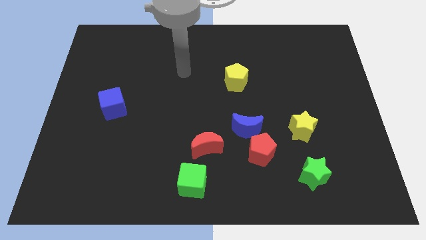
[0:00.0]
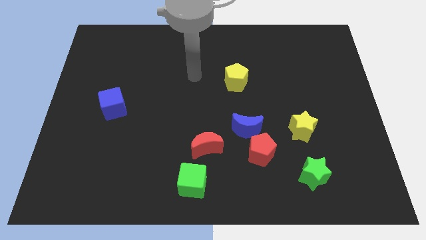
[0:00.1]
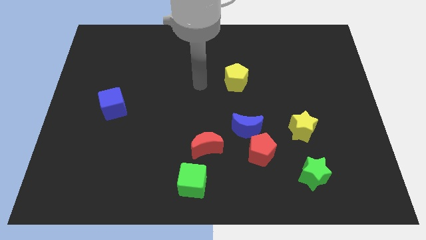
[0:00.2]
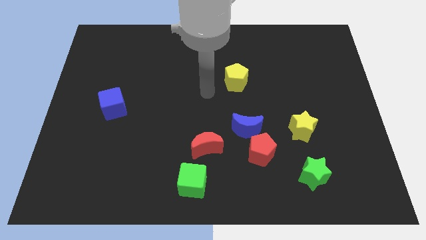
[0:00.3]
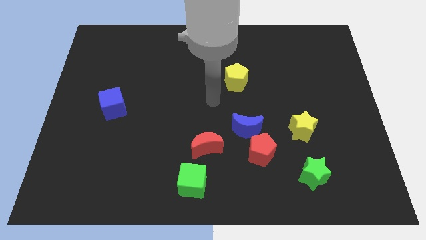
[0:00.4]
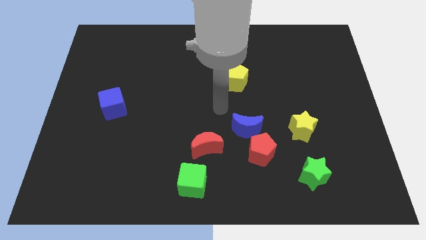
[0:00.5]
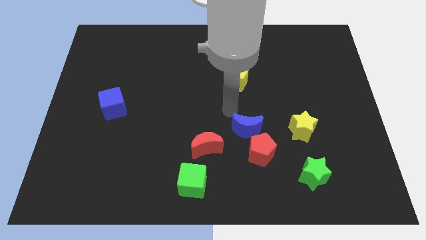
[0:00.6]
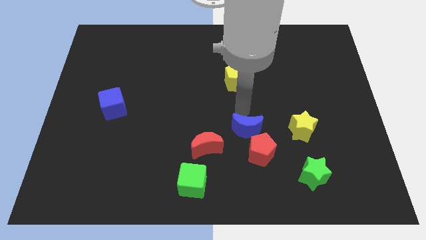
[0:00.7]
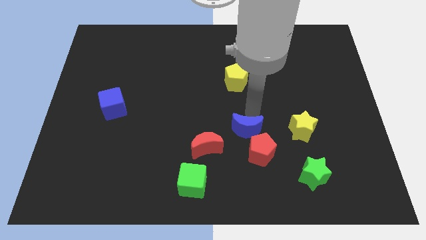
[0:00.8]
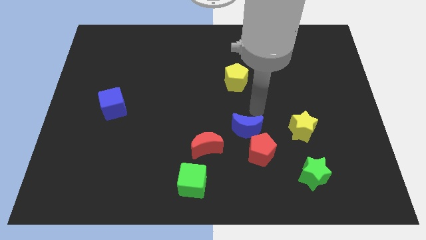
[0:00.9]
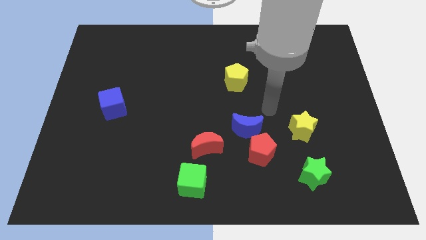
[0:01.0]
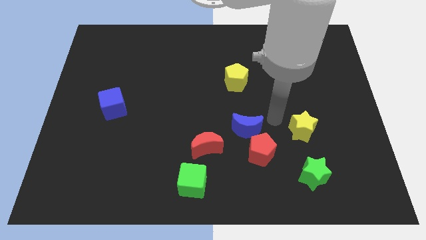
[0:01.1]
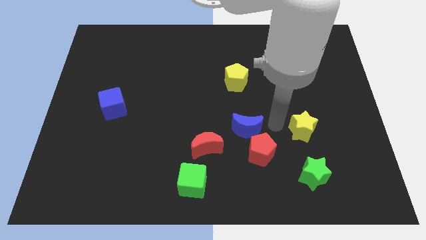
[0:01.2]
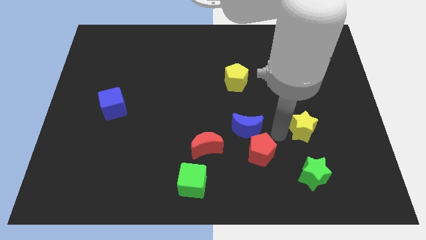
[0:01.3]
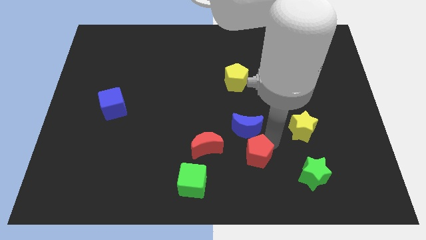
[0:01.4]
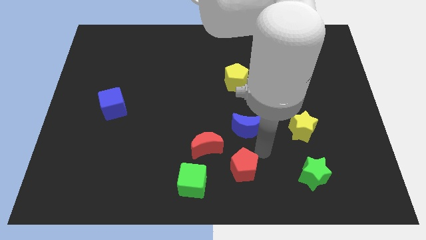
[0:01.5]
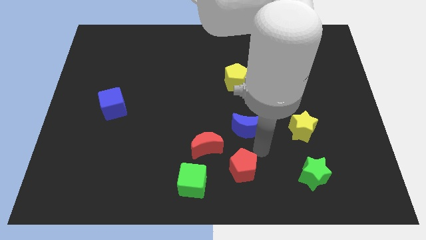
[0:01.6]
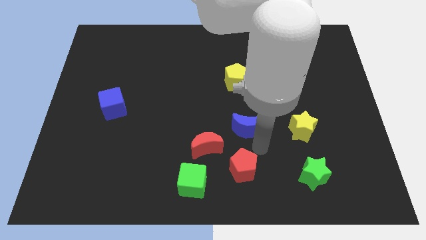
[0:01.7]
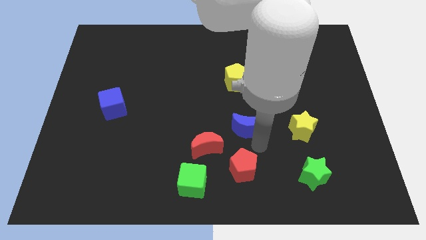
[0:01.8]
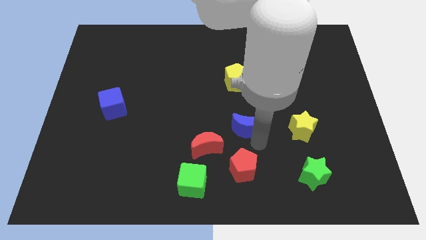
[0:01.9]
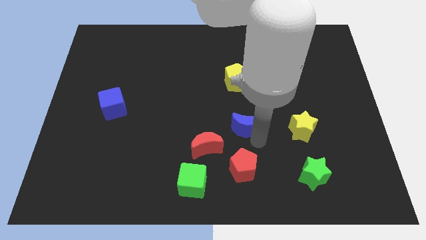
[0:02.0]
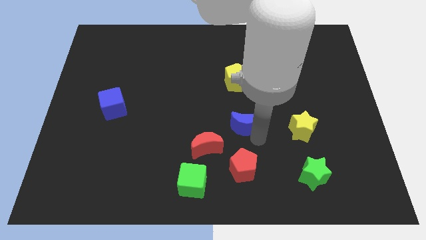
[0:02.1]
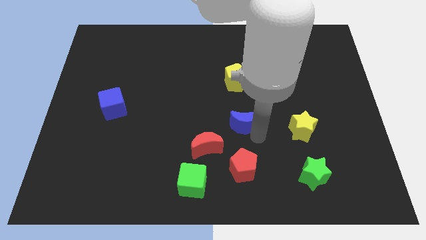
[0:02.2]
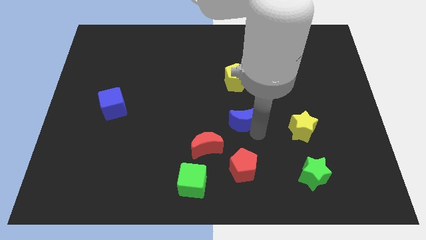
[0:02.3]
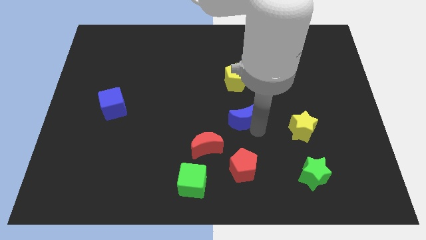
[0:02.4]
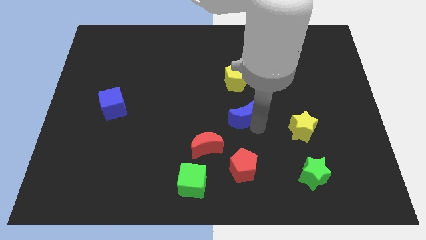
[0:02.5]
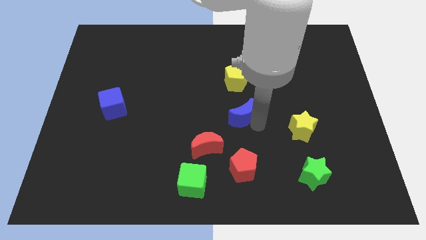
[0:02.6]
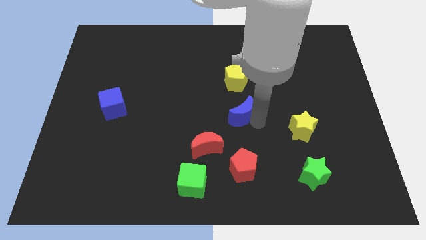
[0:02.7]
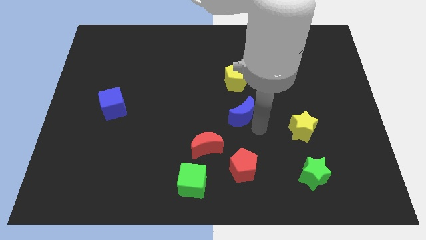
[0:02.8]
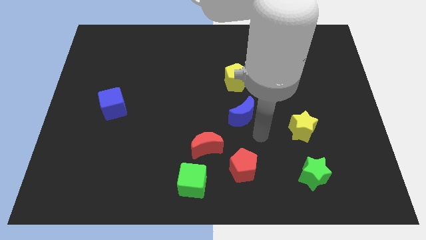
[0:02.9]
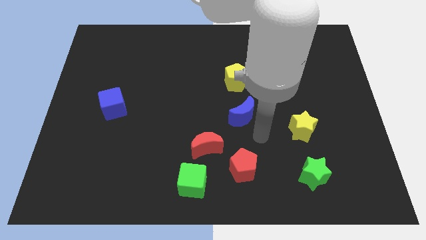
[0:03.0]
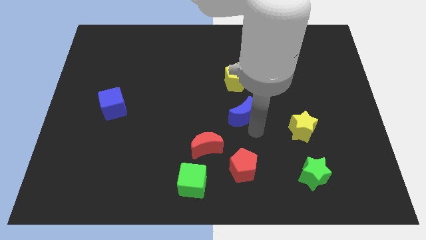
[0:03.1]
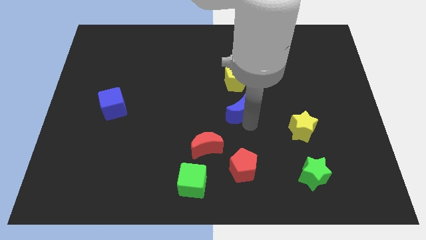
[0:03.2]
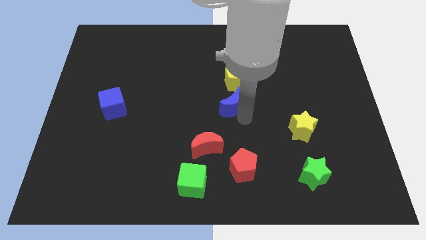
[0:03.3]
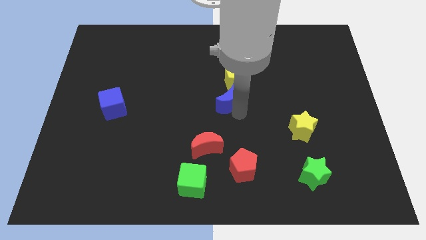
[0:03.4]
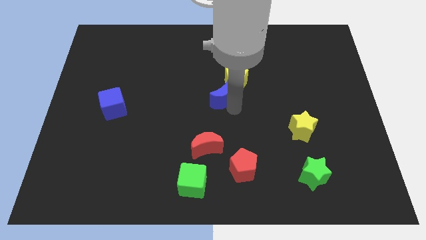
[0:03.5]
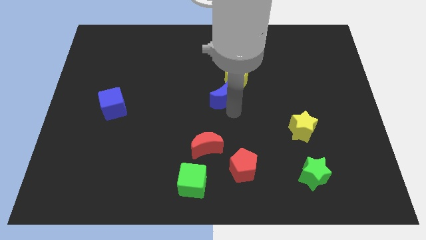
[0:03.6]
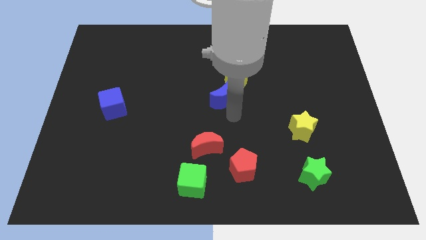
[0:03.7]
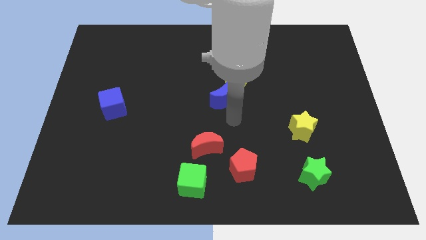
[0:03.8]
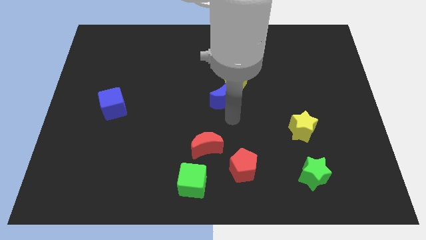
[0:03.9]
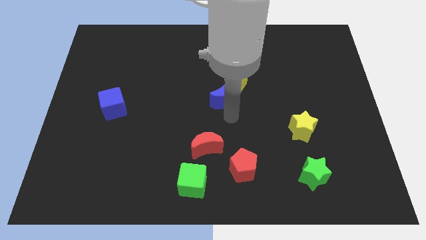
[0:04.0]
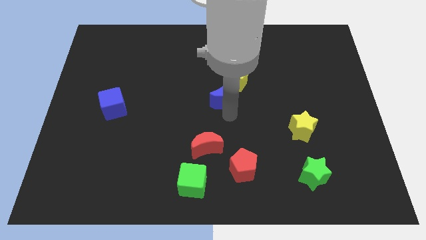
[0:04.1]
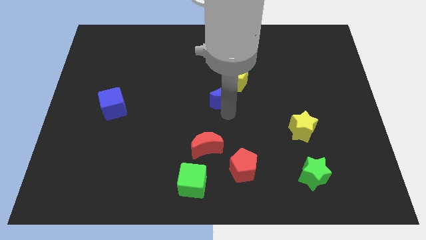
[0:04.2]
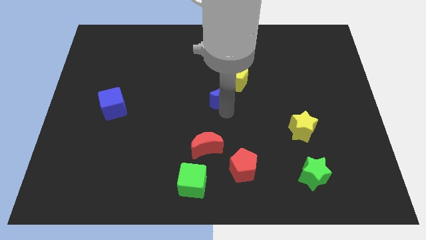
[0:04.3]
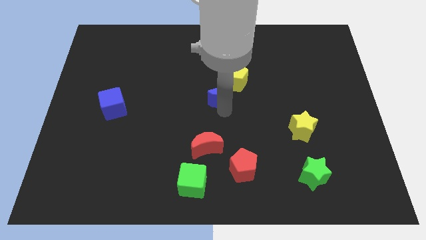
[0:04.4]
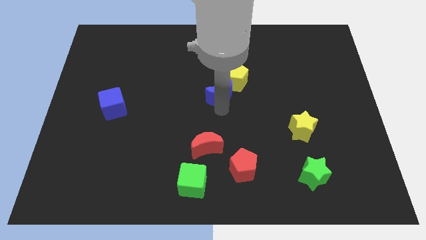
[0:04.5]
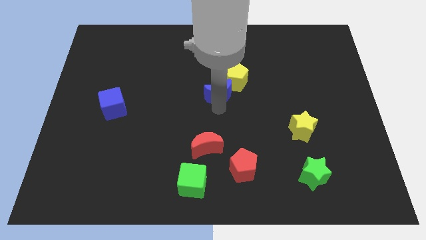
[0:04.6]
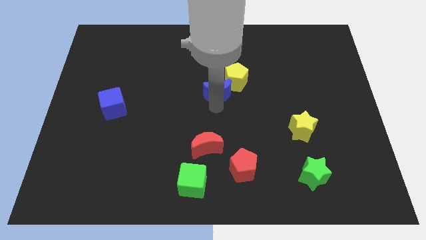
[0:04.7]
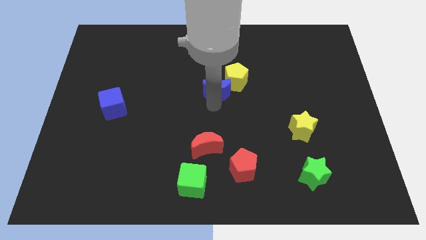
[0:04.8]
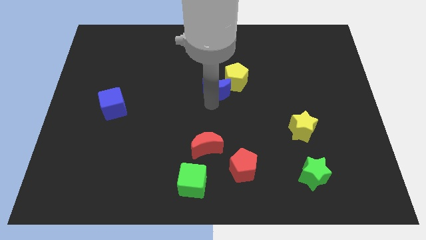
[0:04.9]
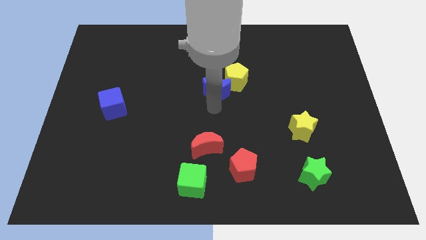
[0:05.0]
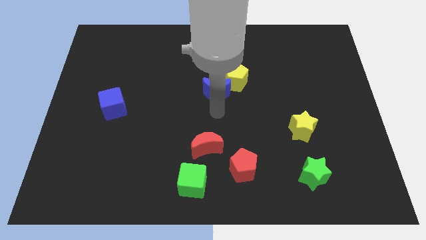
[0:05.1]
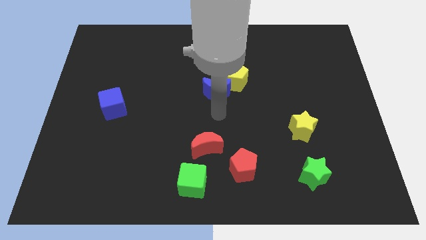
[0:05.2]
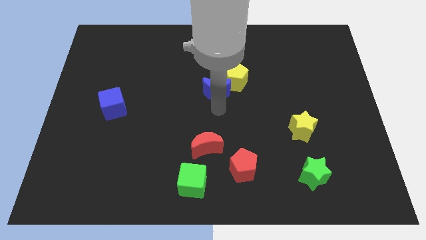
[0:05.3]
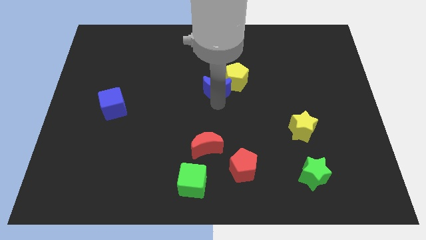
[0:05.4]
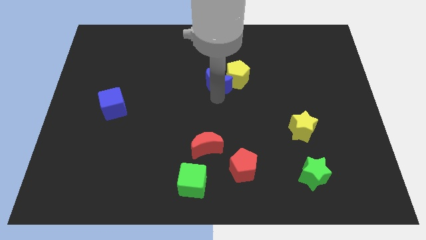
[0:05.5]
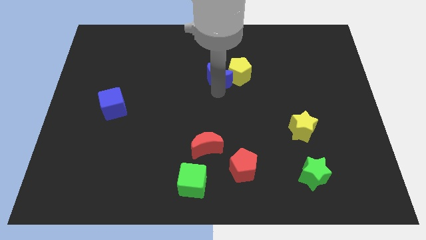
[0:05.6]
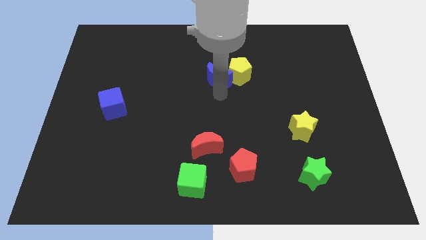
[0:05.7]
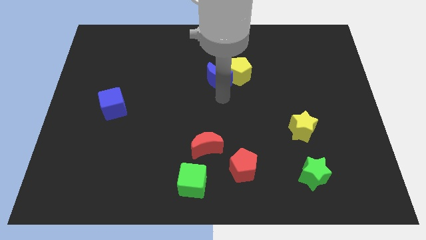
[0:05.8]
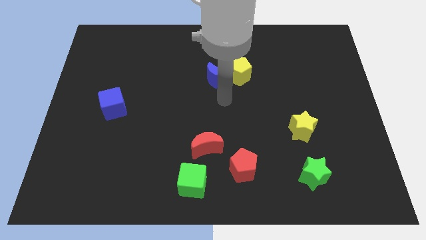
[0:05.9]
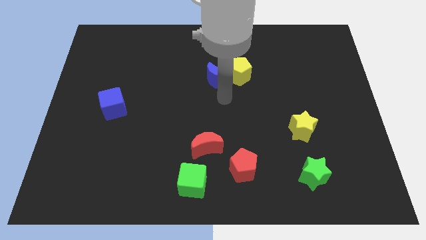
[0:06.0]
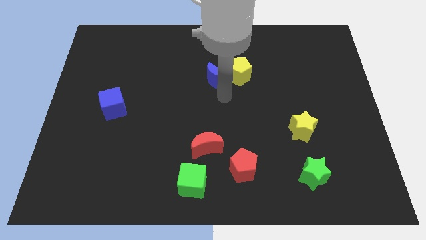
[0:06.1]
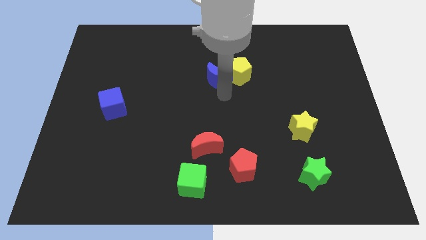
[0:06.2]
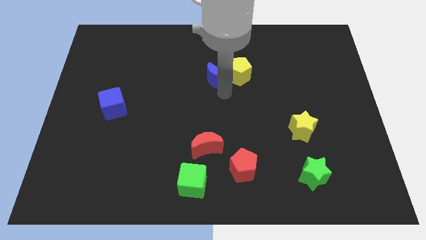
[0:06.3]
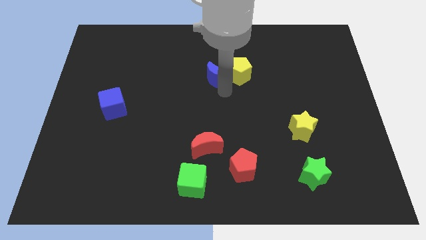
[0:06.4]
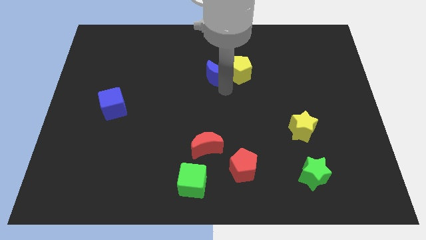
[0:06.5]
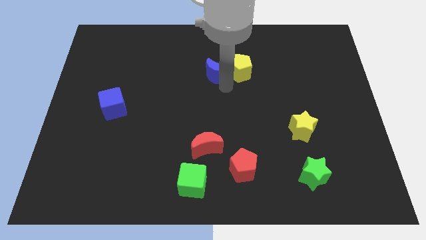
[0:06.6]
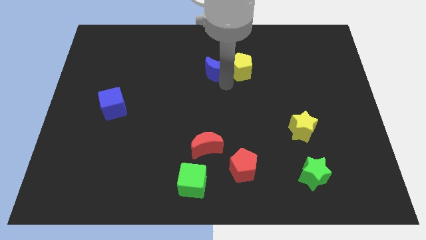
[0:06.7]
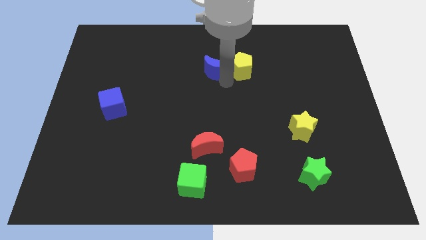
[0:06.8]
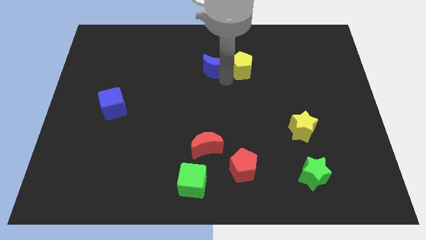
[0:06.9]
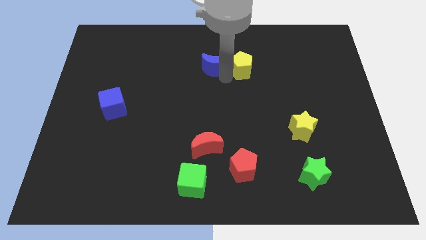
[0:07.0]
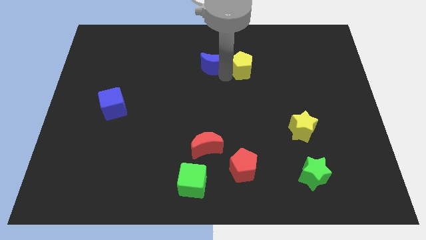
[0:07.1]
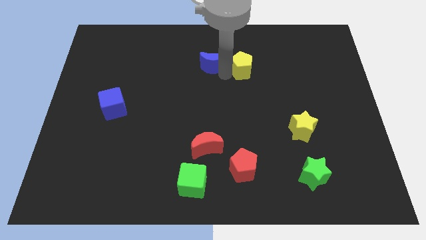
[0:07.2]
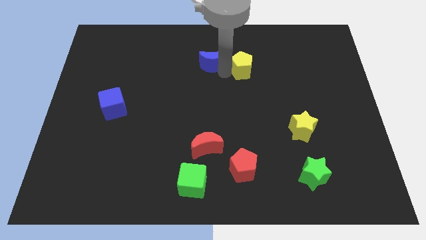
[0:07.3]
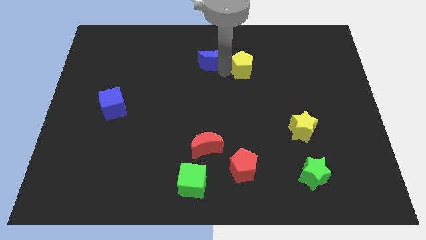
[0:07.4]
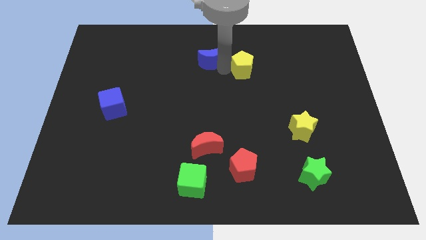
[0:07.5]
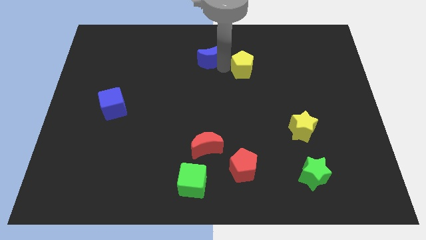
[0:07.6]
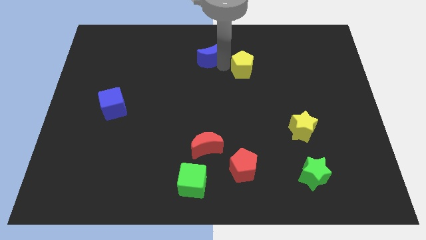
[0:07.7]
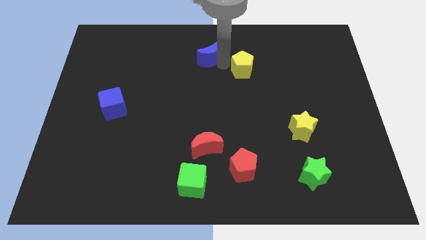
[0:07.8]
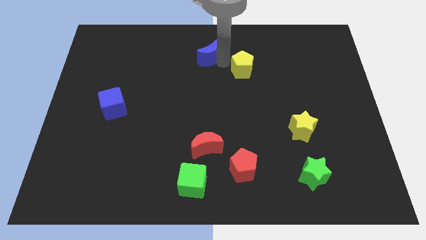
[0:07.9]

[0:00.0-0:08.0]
push the blue moon to the top side
